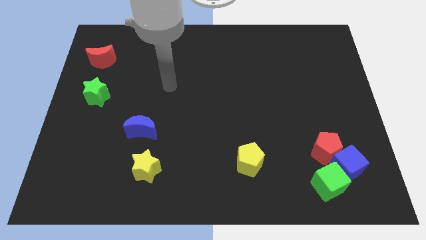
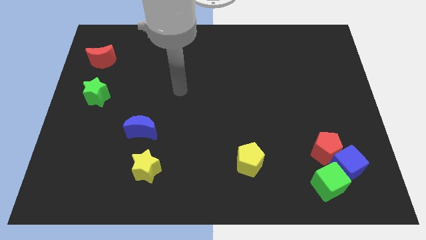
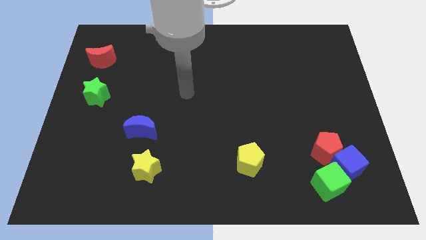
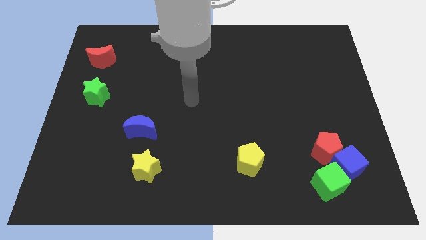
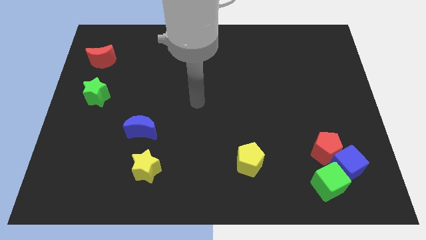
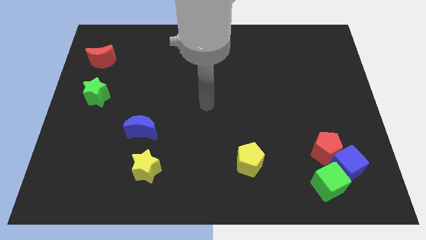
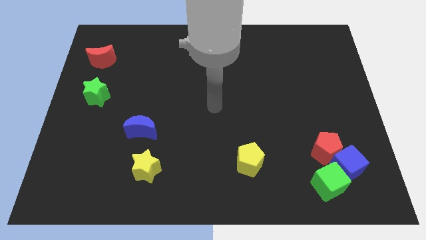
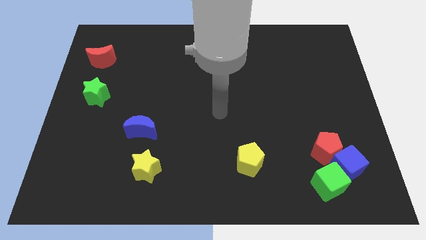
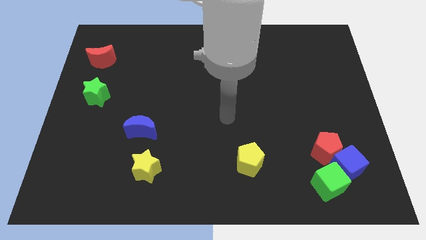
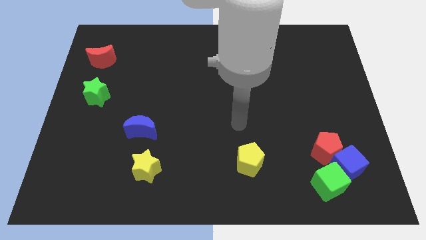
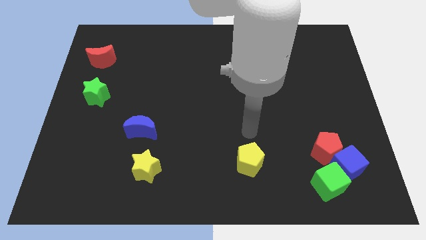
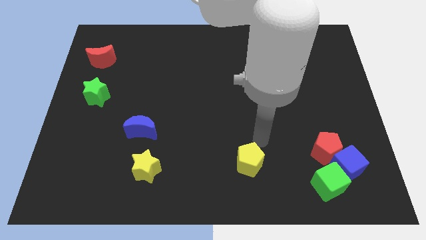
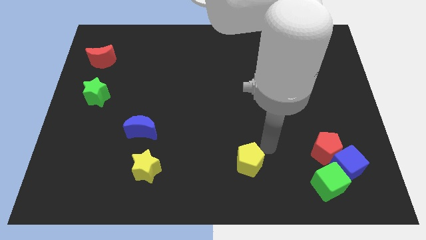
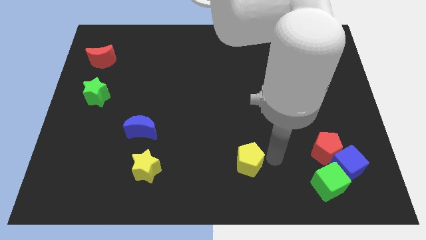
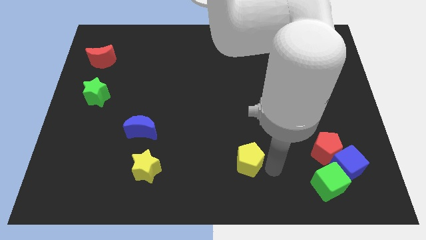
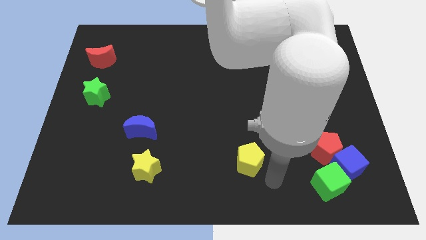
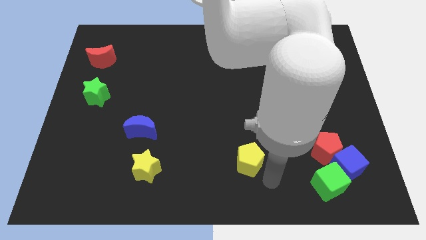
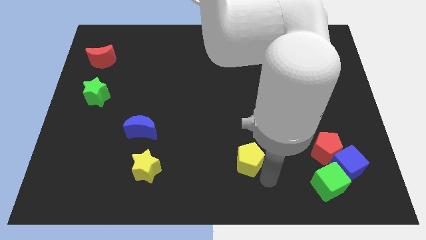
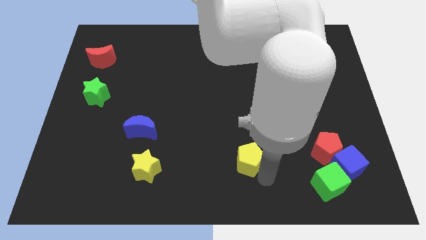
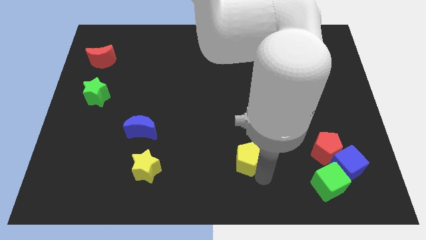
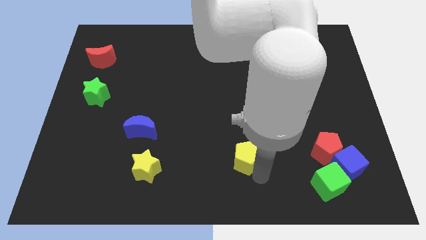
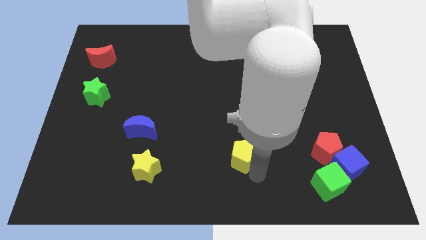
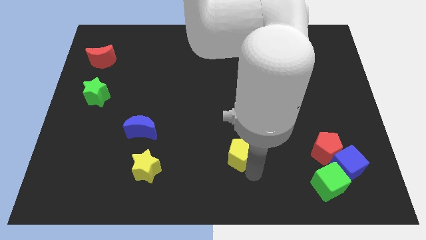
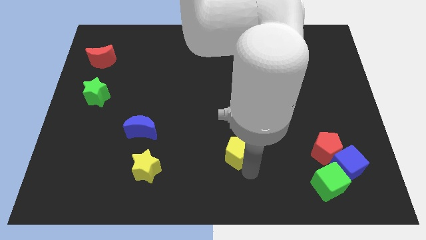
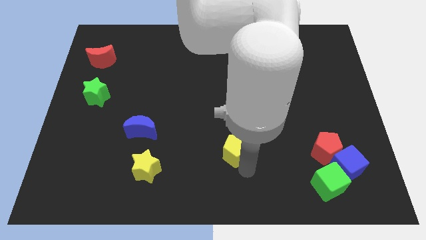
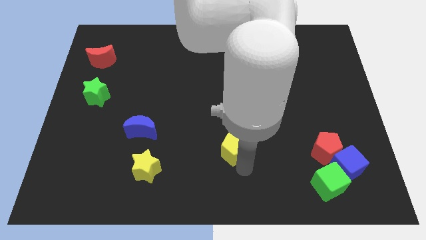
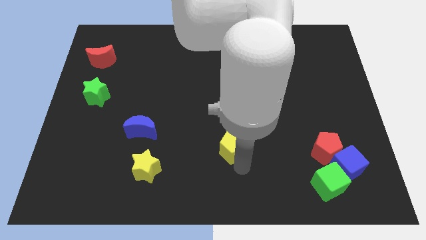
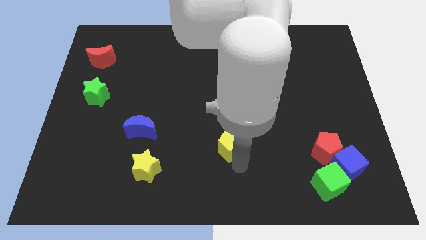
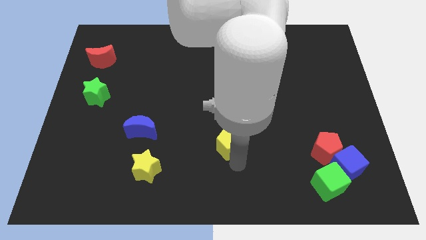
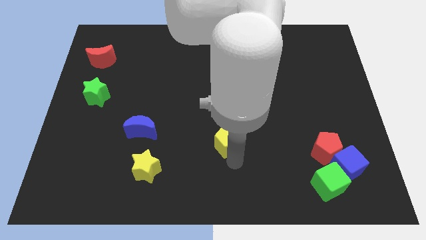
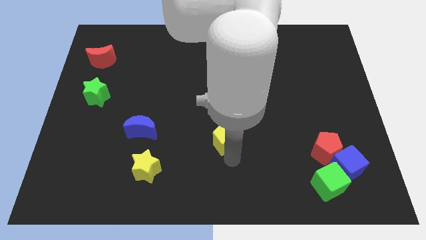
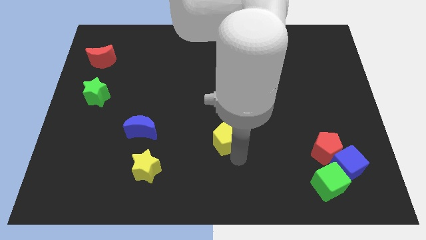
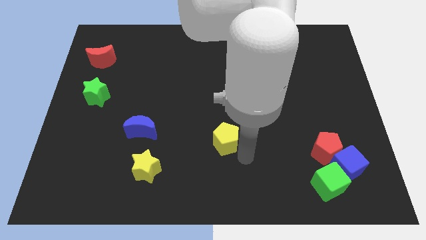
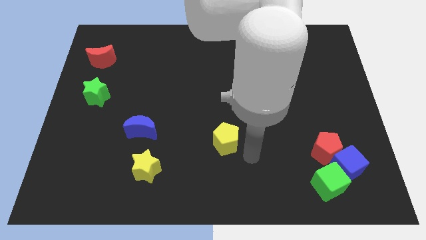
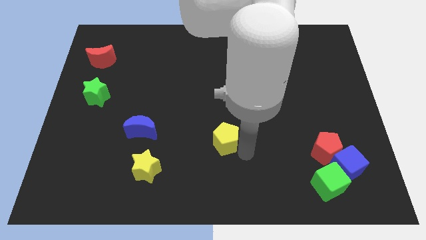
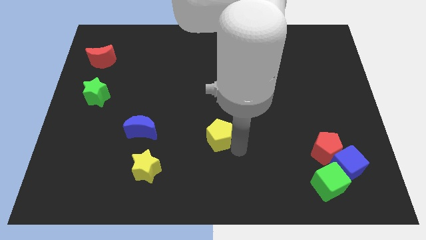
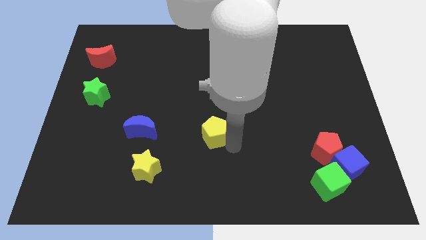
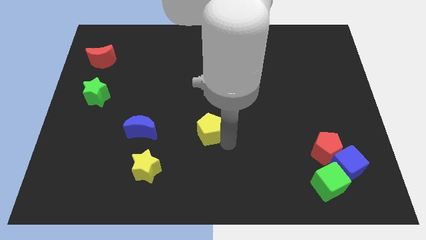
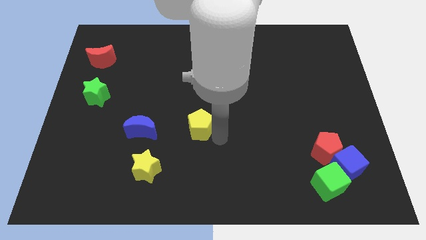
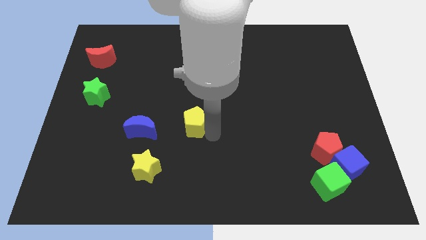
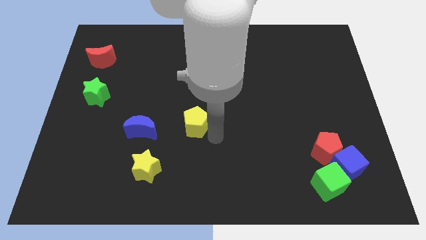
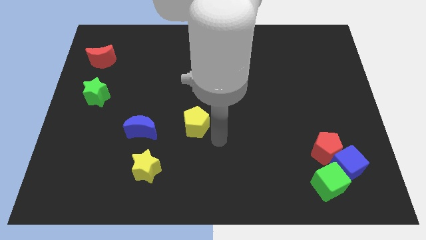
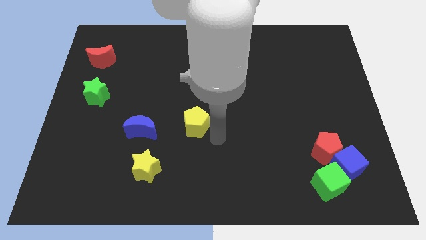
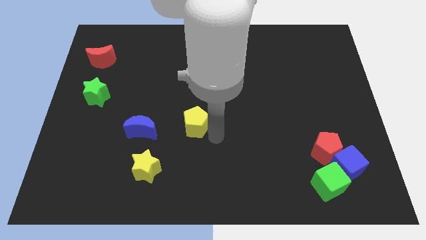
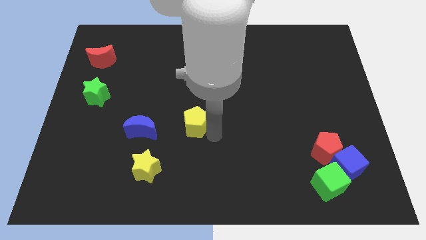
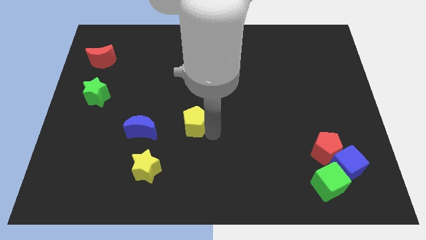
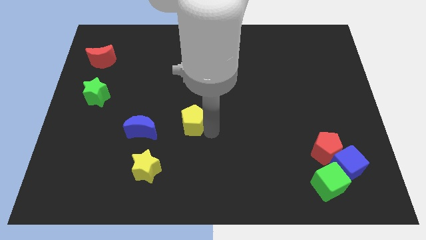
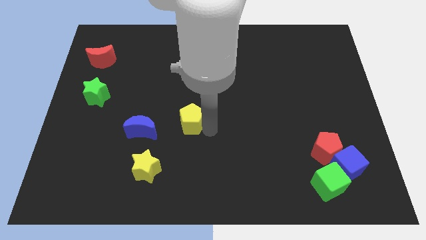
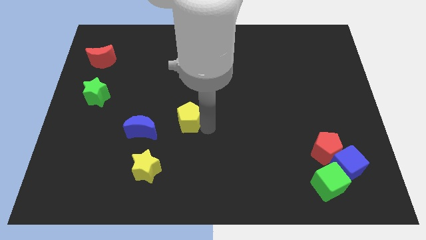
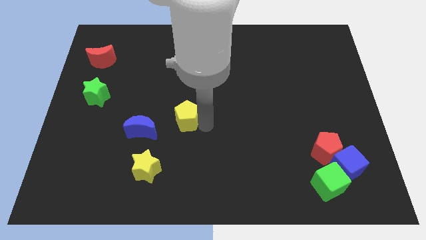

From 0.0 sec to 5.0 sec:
push the yellow pentagon to the top right of the blue moon

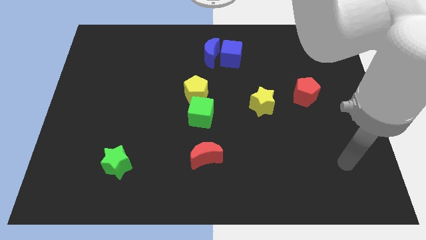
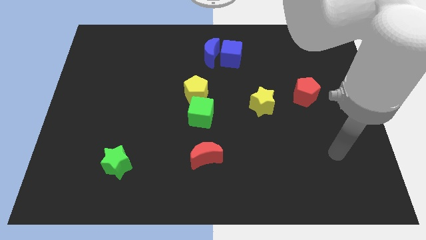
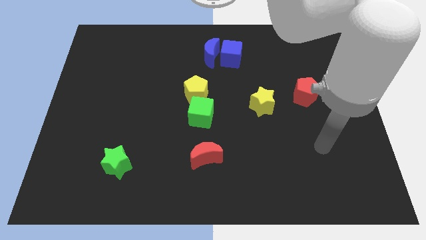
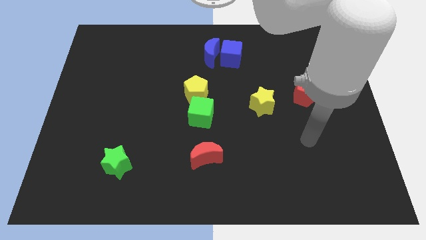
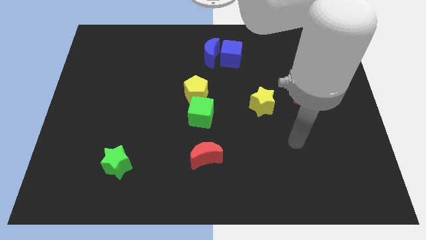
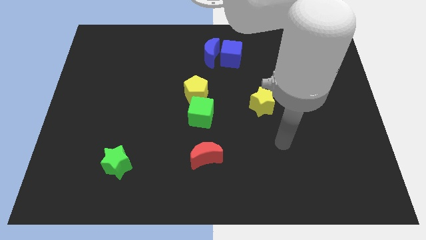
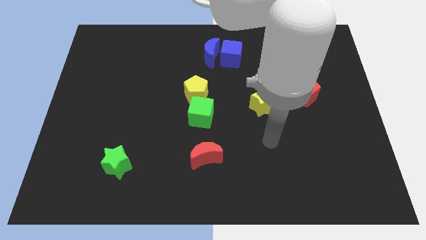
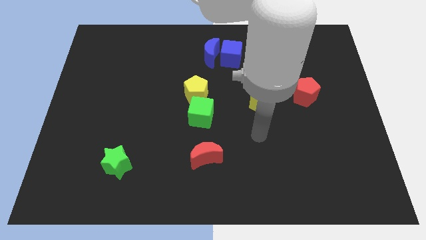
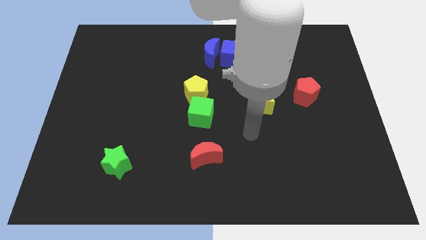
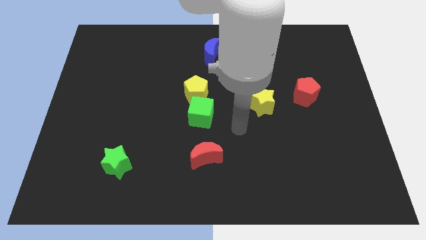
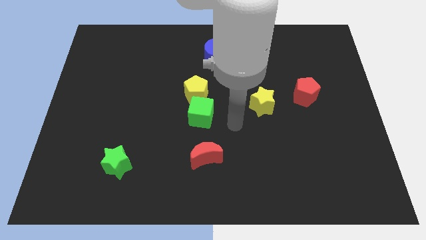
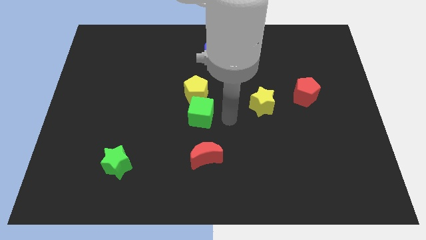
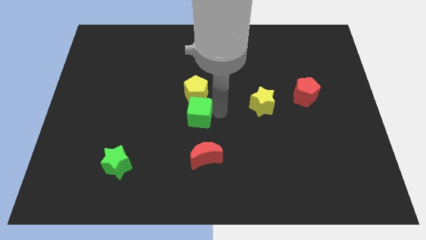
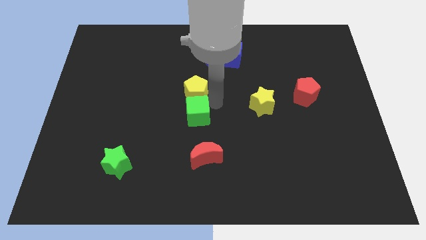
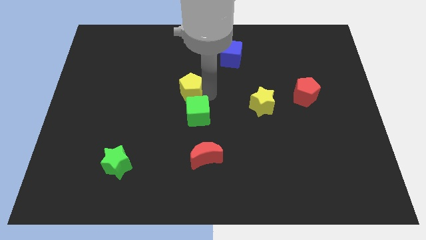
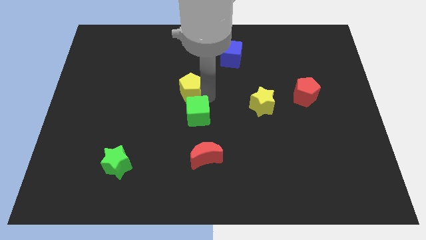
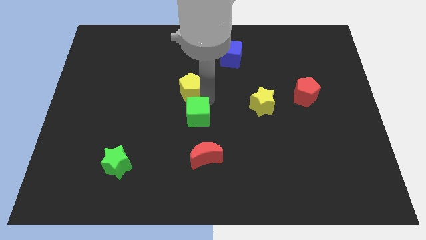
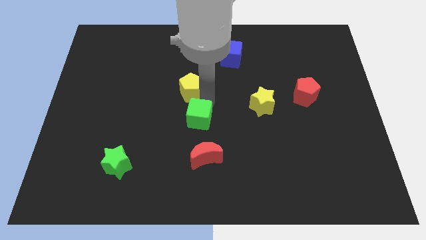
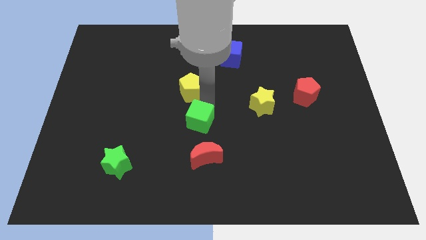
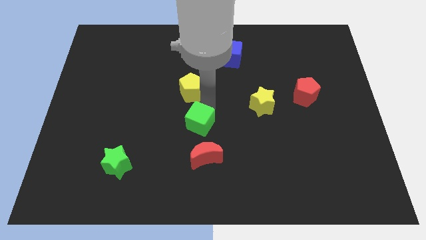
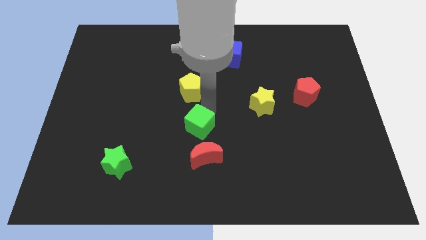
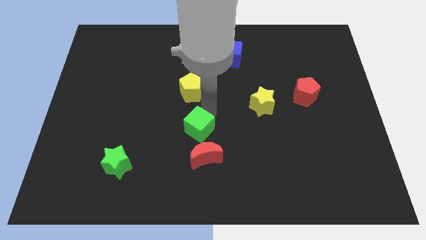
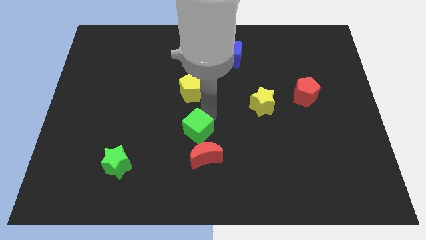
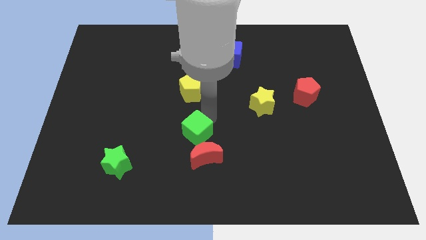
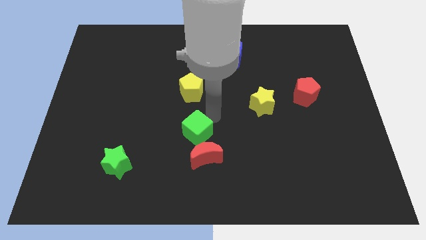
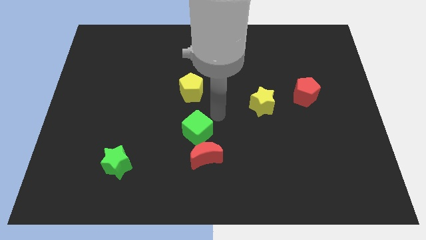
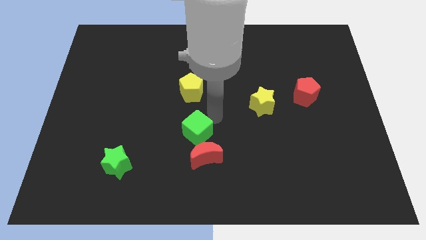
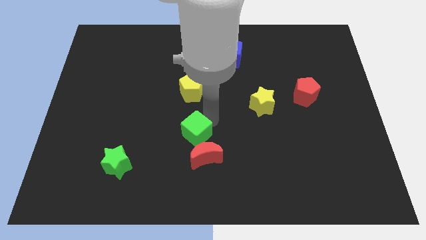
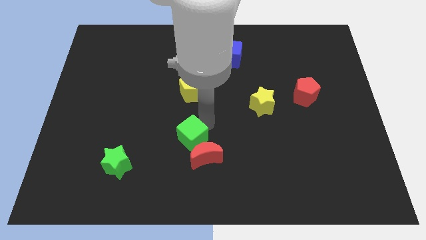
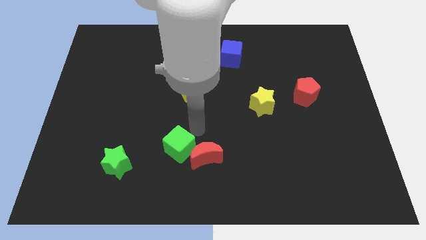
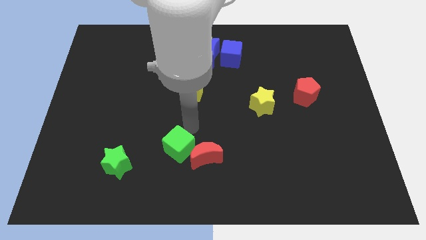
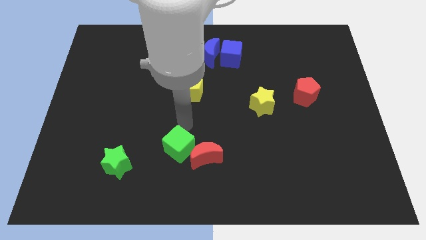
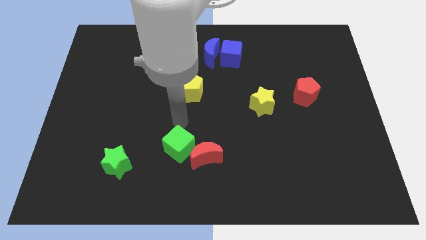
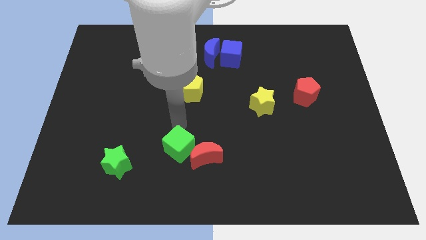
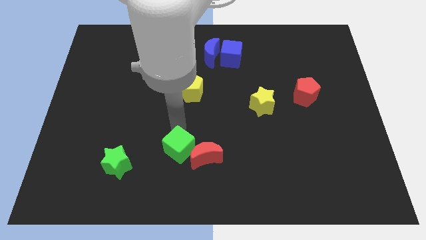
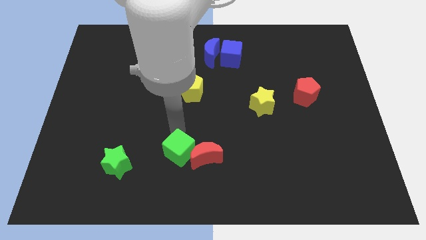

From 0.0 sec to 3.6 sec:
put the green cube to the bottom left of the red moon

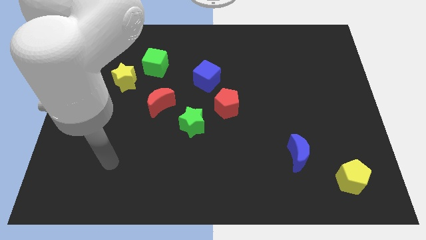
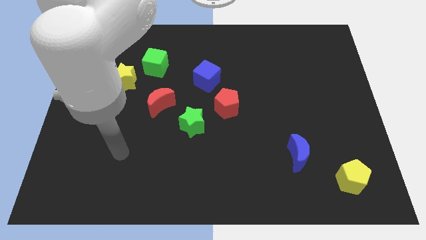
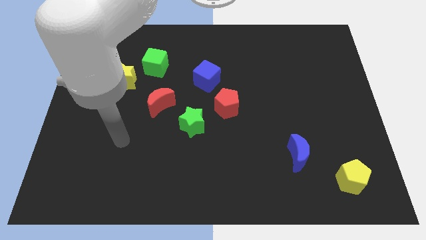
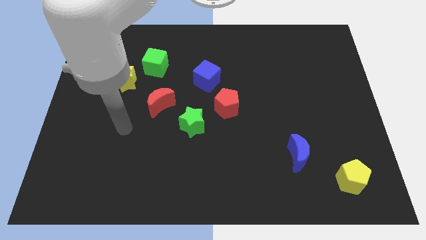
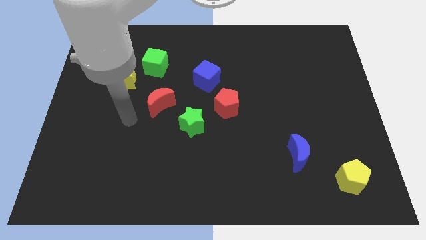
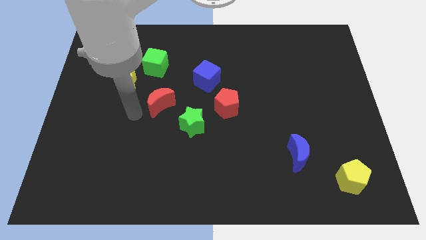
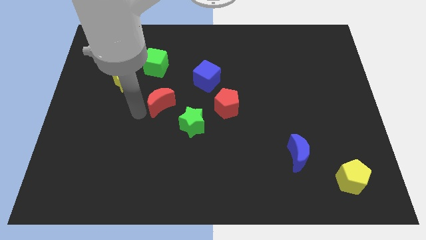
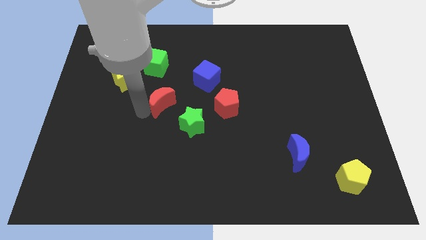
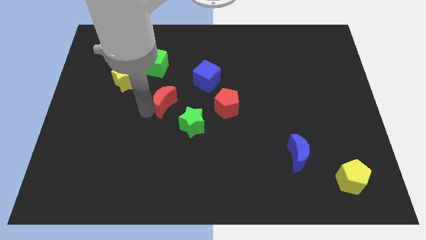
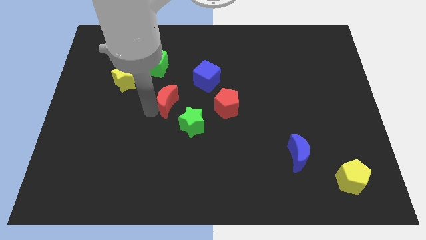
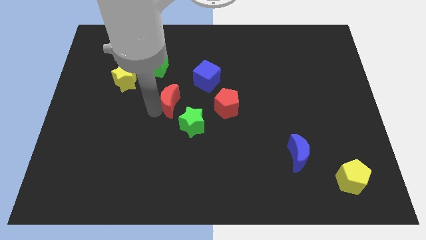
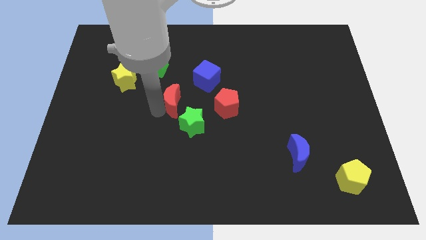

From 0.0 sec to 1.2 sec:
slide the red moon to the top side of the green star
